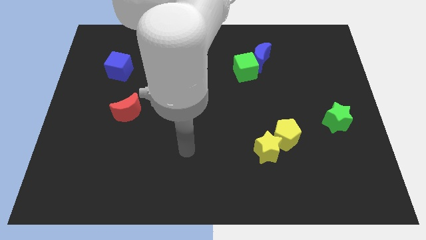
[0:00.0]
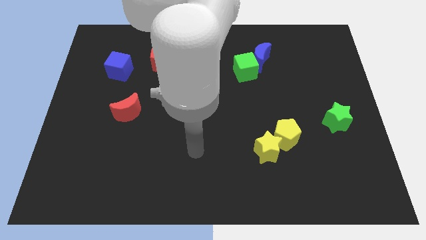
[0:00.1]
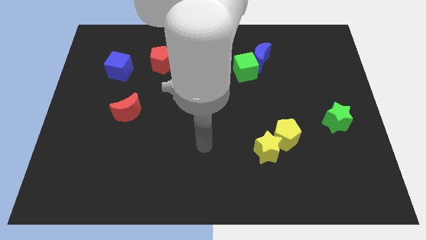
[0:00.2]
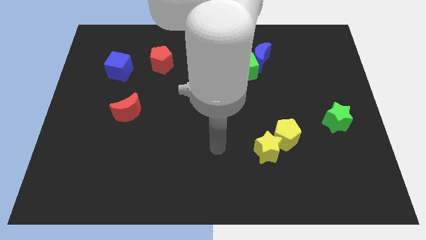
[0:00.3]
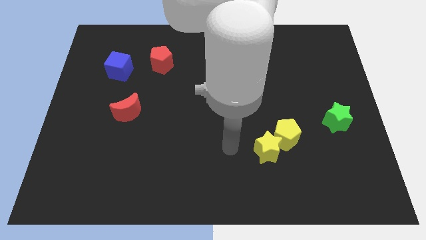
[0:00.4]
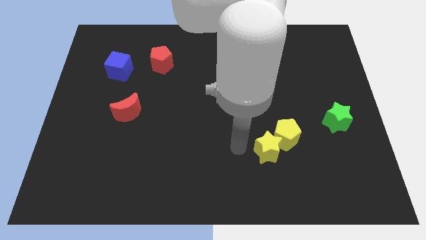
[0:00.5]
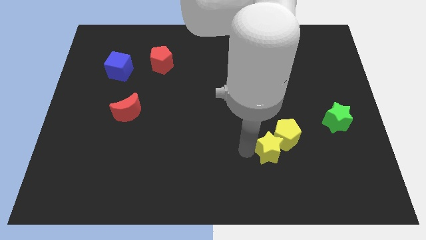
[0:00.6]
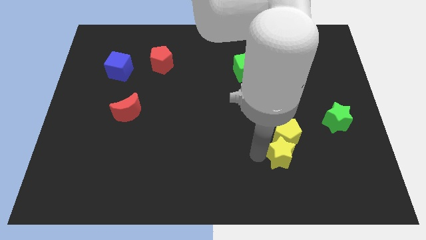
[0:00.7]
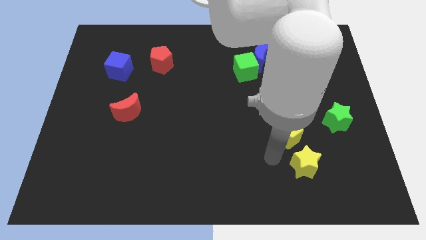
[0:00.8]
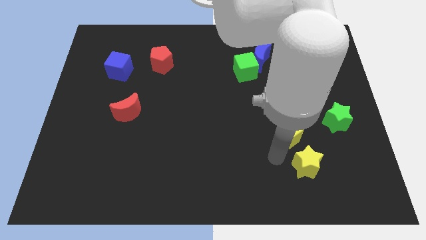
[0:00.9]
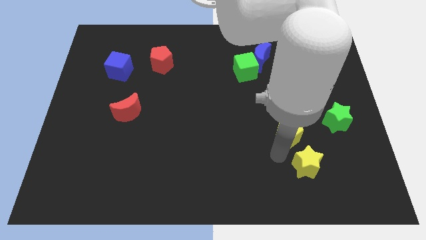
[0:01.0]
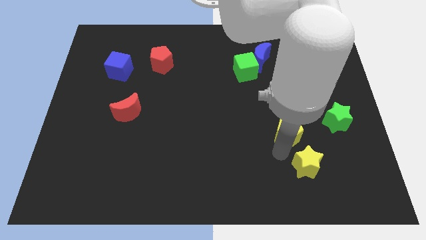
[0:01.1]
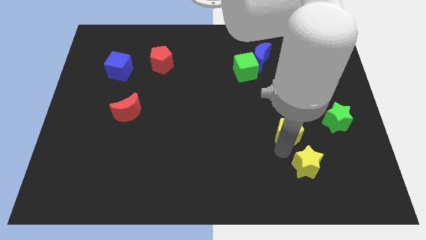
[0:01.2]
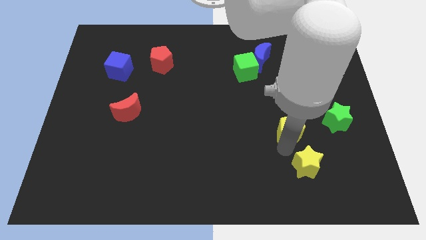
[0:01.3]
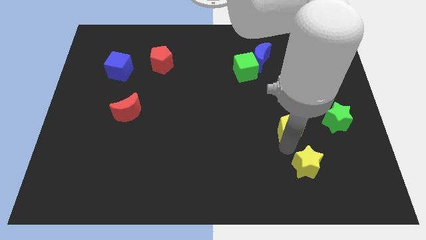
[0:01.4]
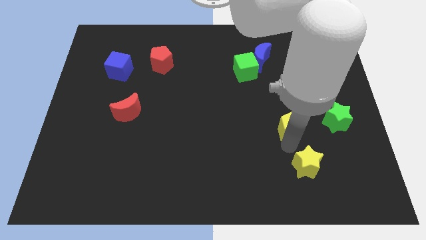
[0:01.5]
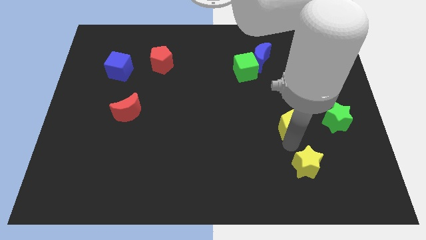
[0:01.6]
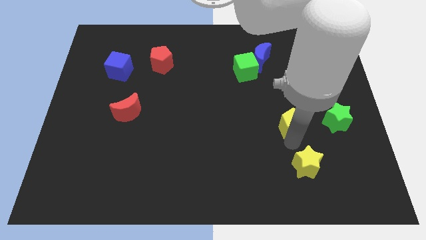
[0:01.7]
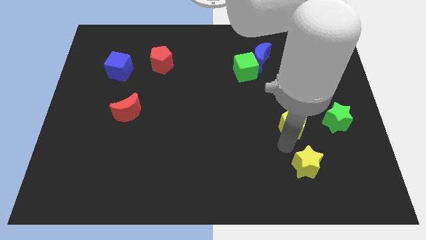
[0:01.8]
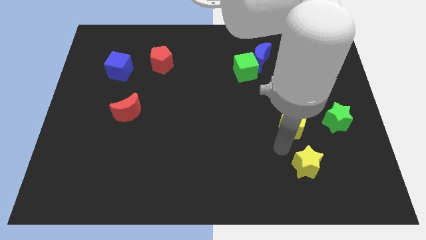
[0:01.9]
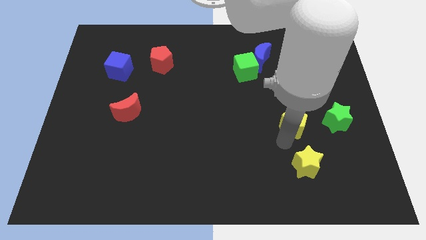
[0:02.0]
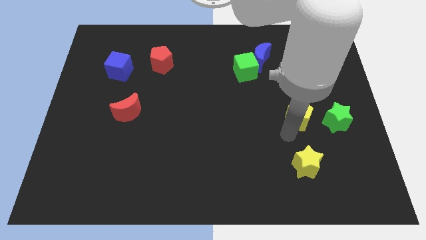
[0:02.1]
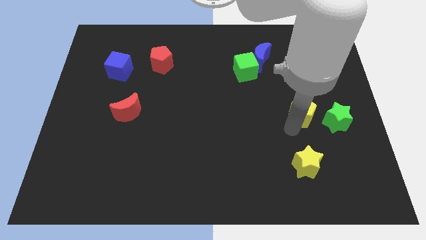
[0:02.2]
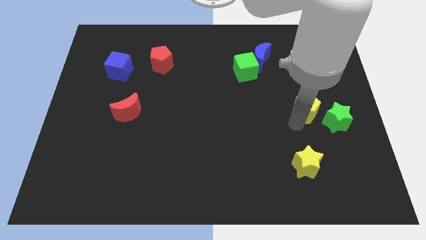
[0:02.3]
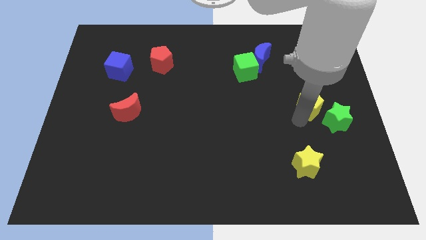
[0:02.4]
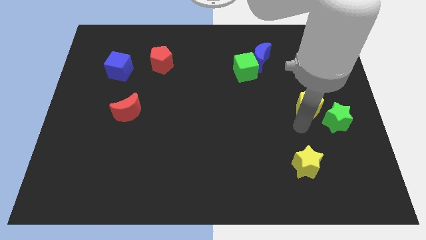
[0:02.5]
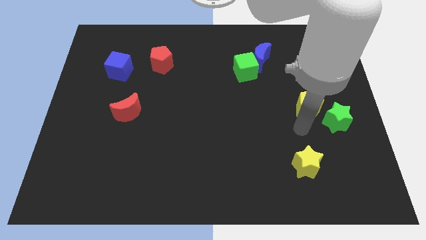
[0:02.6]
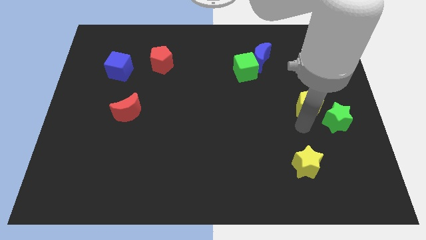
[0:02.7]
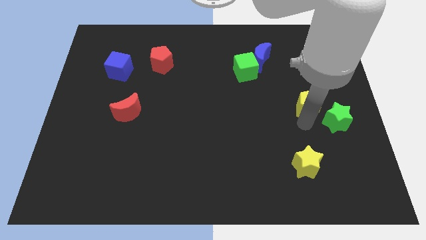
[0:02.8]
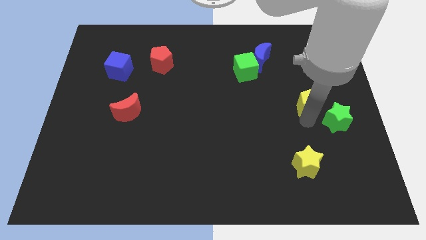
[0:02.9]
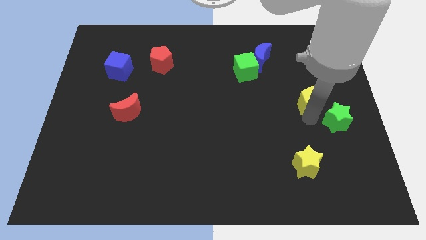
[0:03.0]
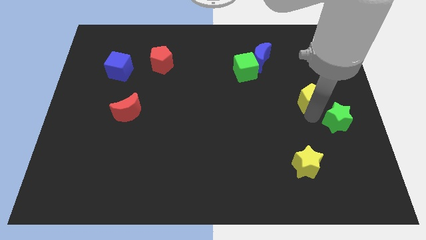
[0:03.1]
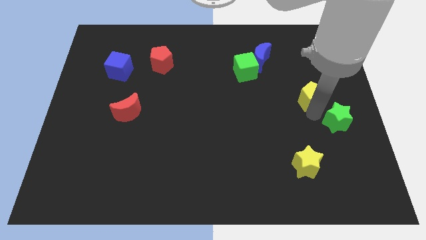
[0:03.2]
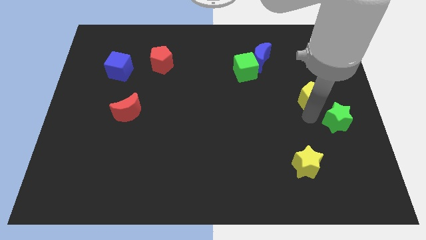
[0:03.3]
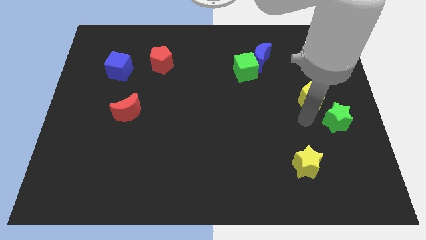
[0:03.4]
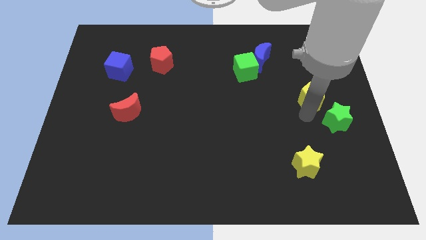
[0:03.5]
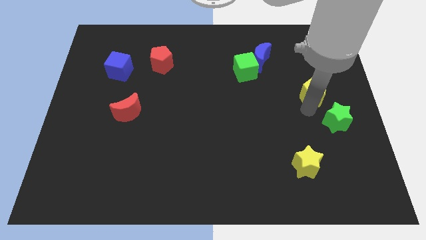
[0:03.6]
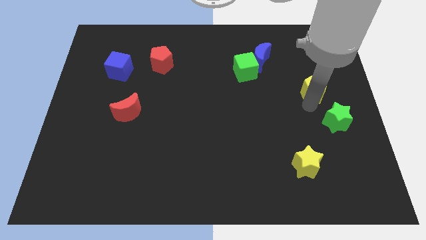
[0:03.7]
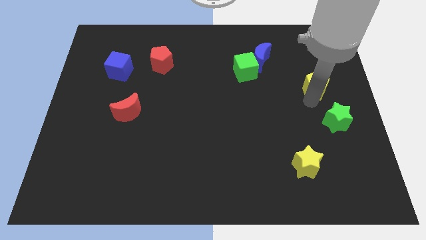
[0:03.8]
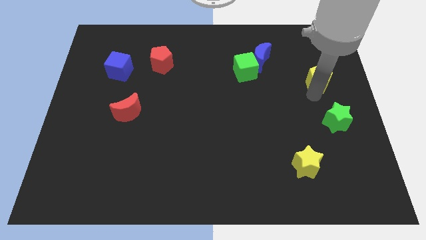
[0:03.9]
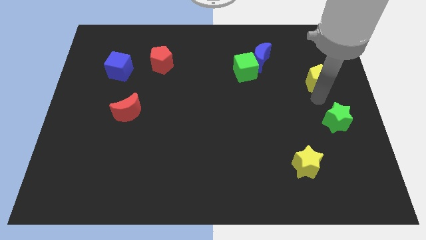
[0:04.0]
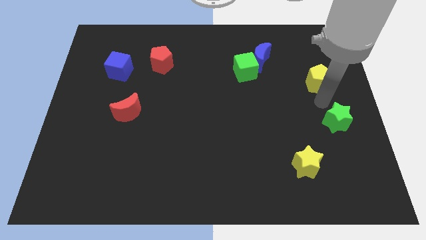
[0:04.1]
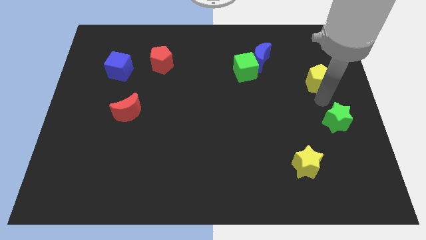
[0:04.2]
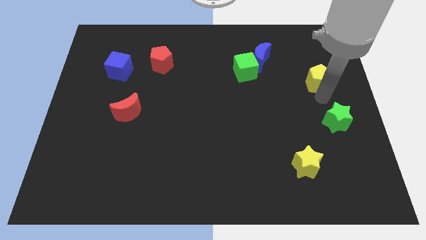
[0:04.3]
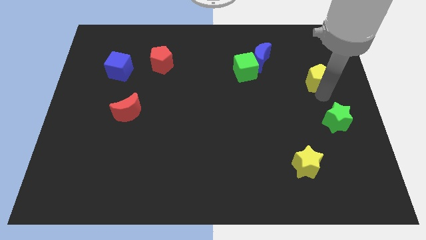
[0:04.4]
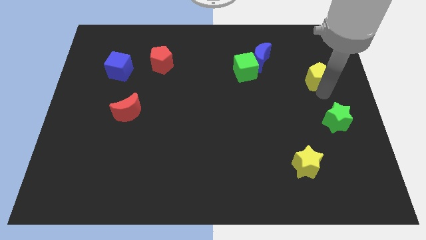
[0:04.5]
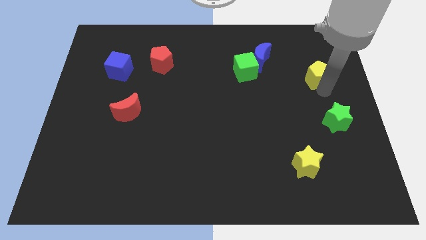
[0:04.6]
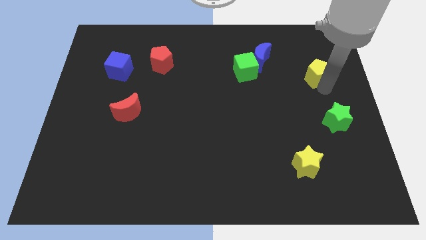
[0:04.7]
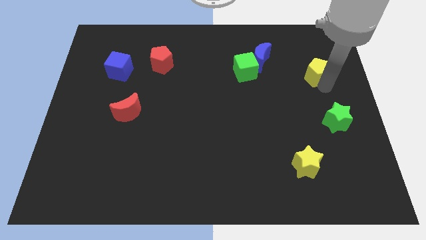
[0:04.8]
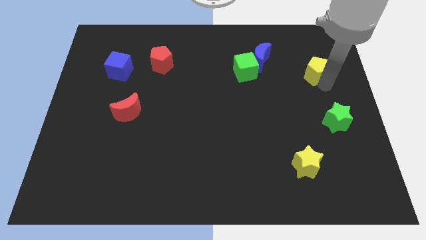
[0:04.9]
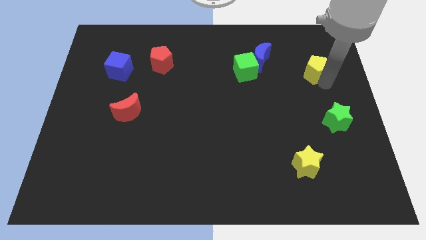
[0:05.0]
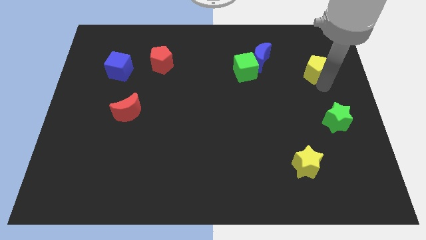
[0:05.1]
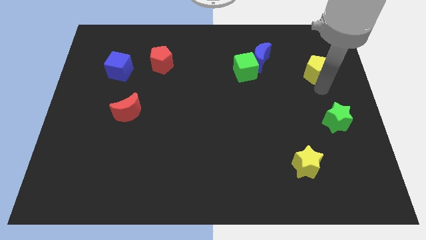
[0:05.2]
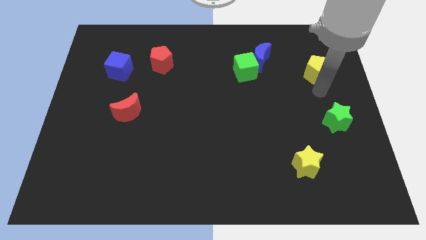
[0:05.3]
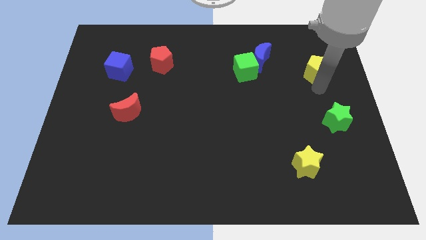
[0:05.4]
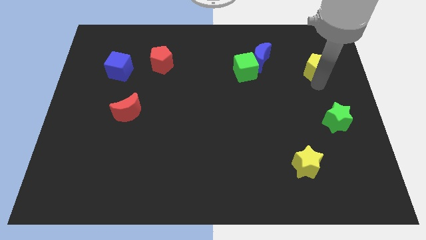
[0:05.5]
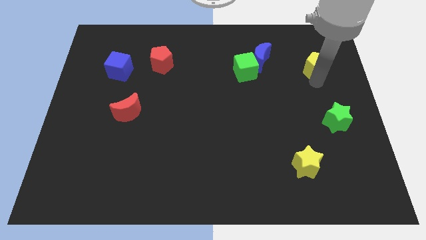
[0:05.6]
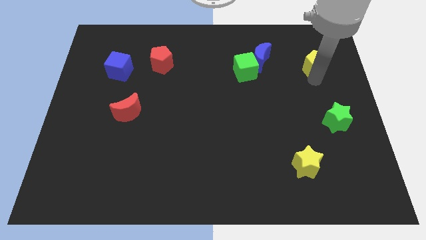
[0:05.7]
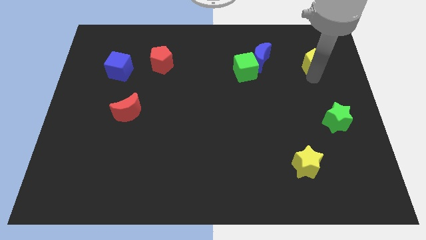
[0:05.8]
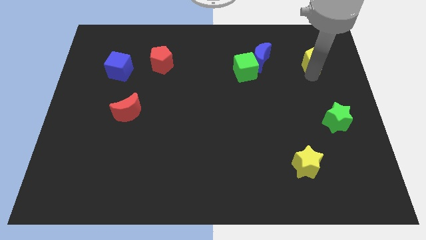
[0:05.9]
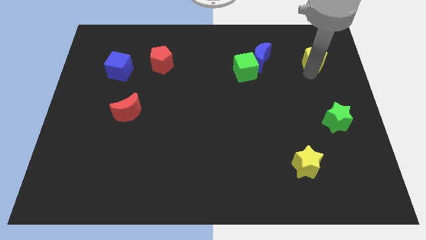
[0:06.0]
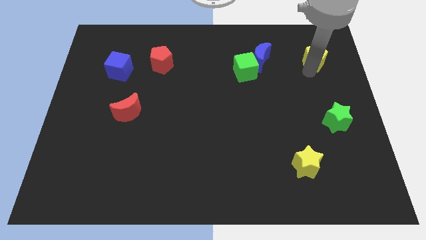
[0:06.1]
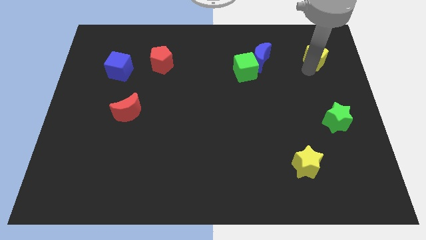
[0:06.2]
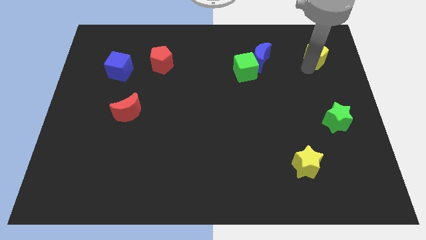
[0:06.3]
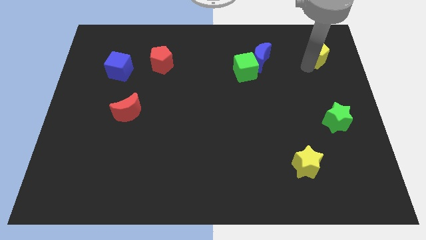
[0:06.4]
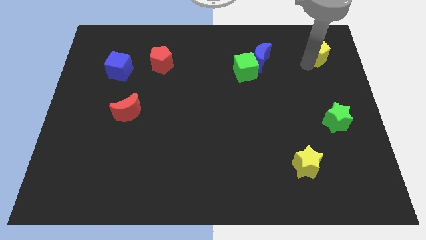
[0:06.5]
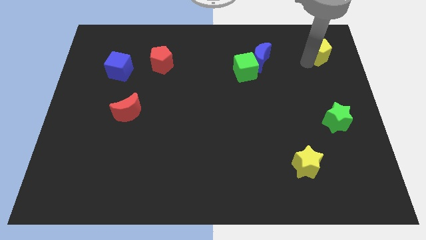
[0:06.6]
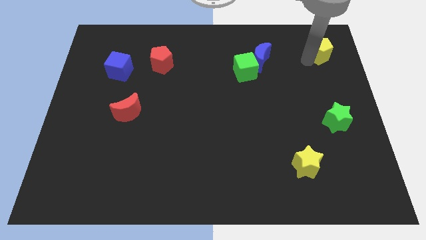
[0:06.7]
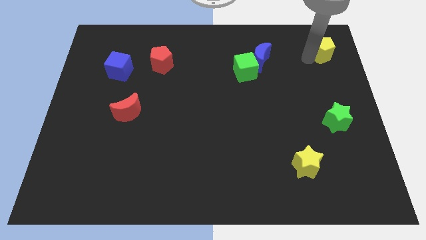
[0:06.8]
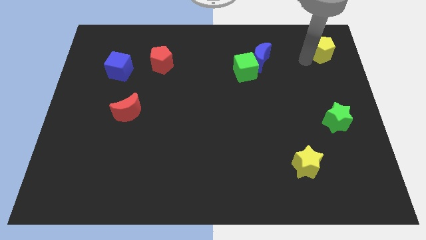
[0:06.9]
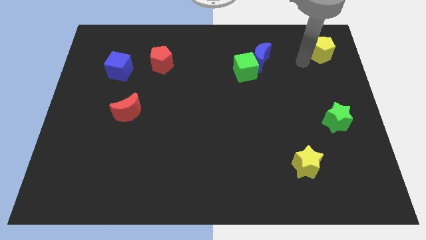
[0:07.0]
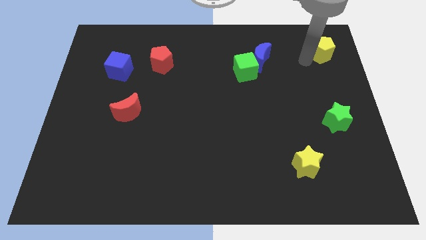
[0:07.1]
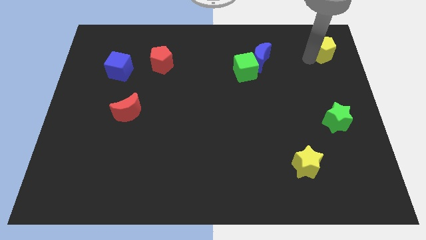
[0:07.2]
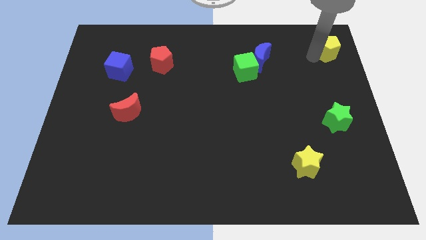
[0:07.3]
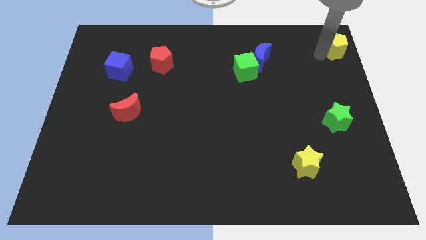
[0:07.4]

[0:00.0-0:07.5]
move the yellow pentagon to the top right corner
